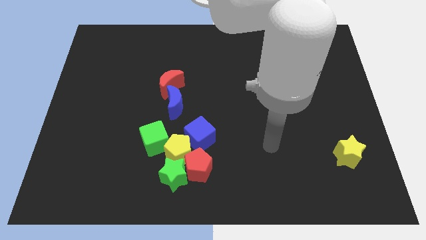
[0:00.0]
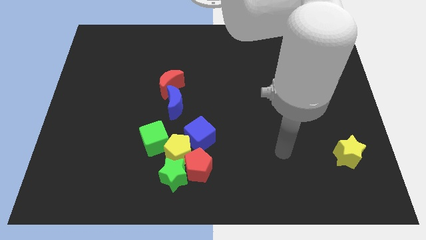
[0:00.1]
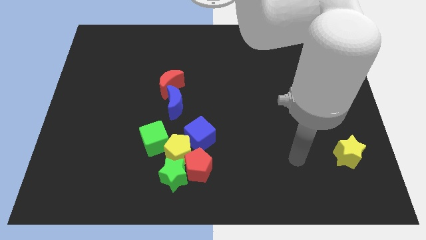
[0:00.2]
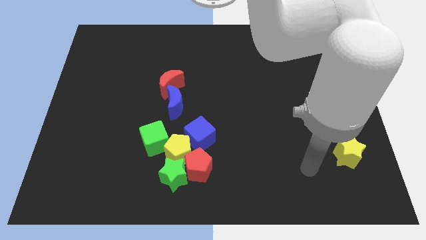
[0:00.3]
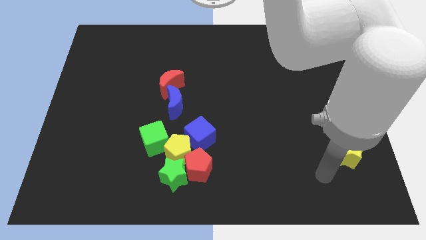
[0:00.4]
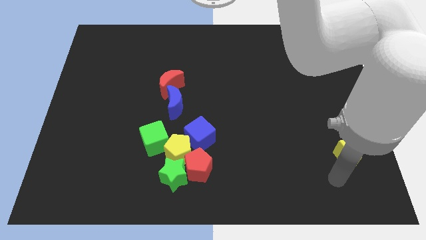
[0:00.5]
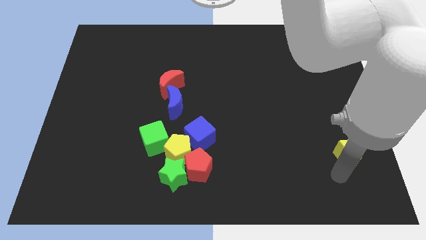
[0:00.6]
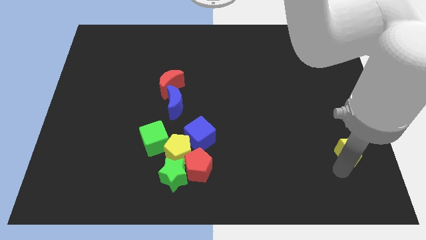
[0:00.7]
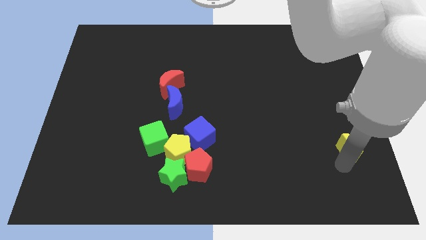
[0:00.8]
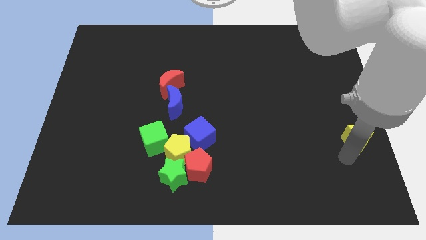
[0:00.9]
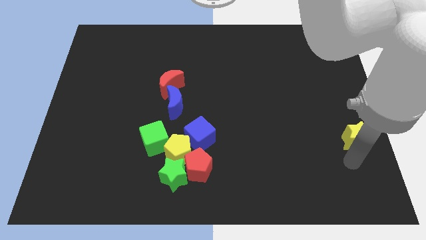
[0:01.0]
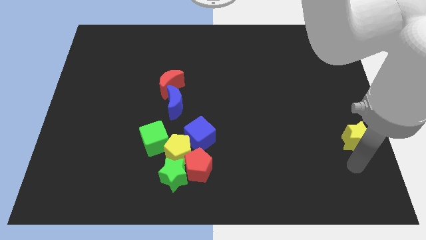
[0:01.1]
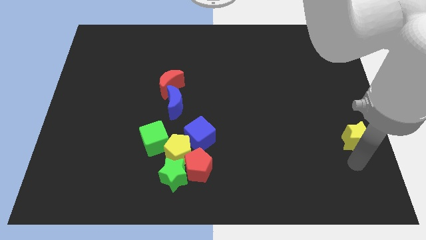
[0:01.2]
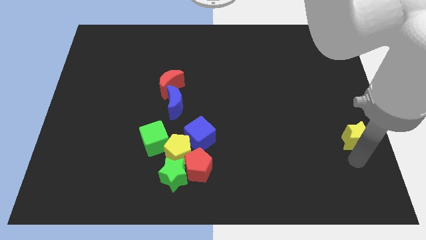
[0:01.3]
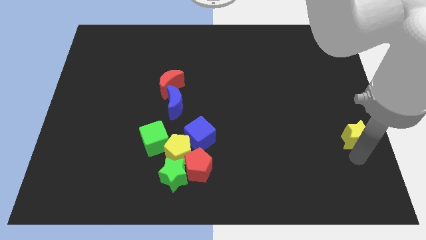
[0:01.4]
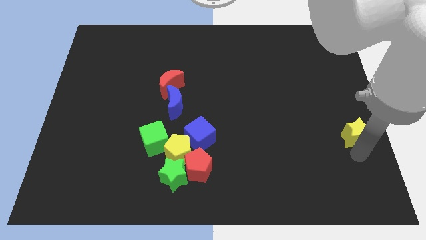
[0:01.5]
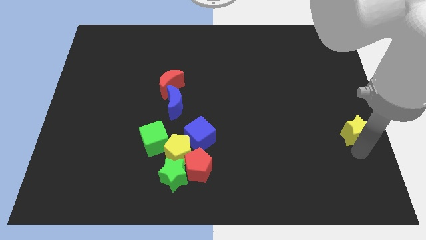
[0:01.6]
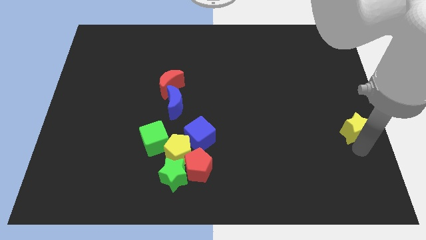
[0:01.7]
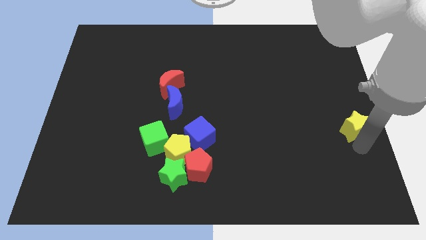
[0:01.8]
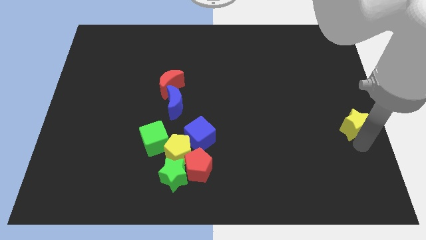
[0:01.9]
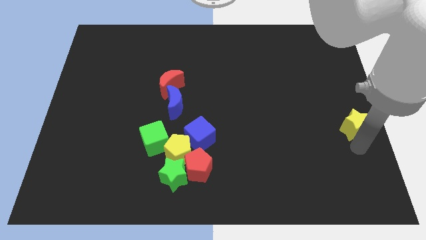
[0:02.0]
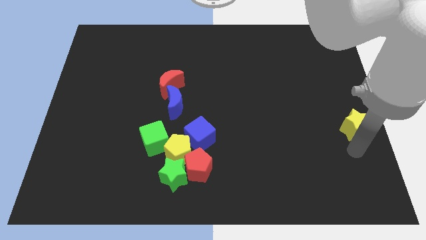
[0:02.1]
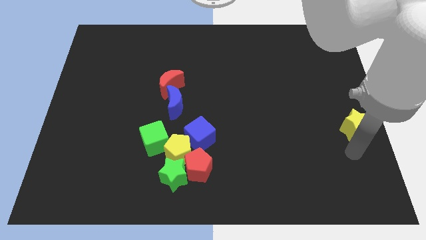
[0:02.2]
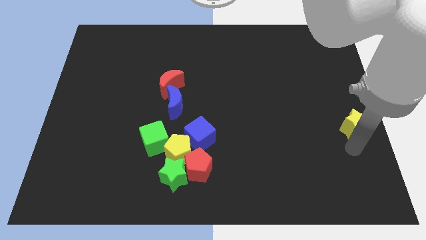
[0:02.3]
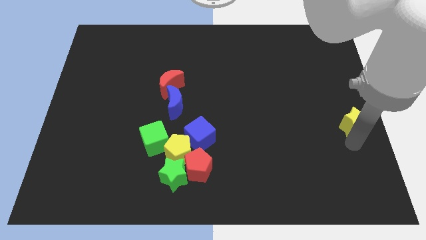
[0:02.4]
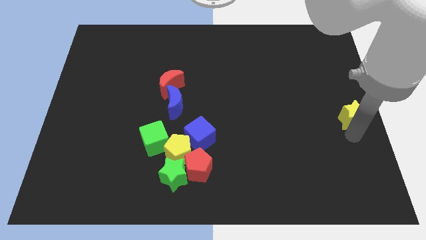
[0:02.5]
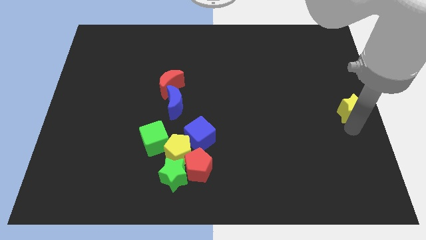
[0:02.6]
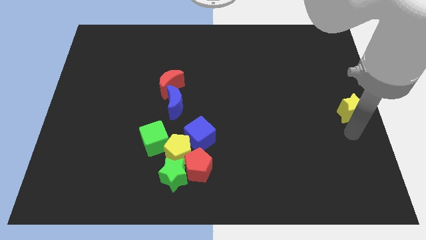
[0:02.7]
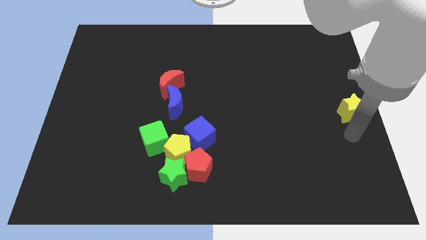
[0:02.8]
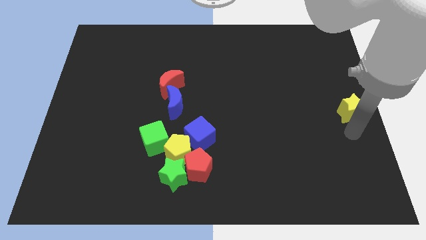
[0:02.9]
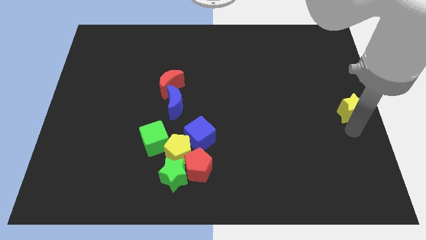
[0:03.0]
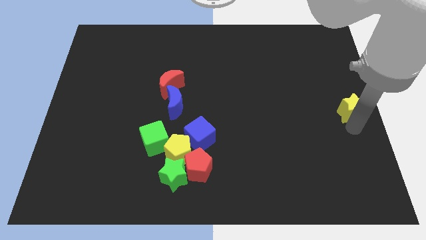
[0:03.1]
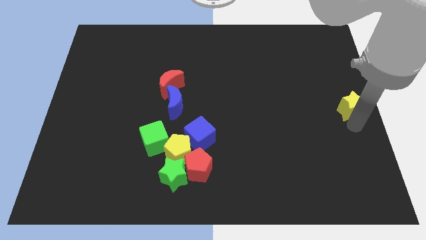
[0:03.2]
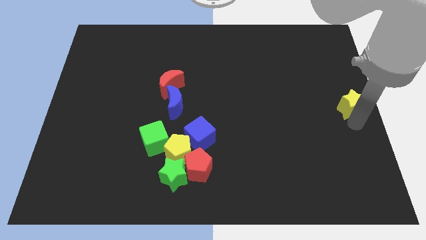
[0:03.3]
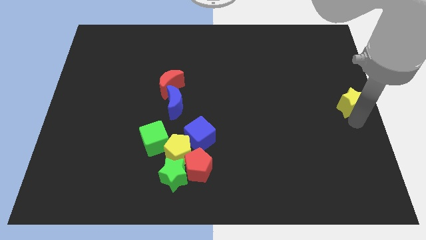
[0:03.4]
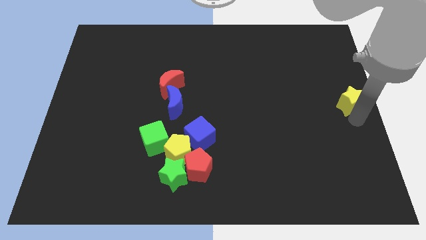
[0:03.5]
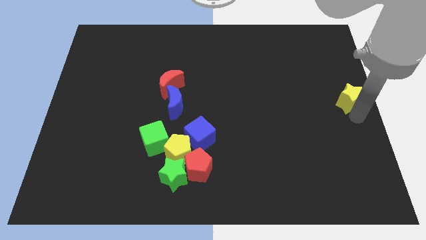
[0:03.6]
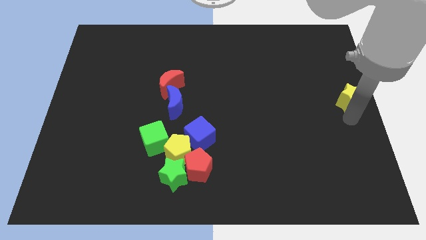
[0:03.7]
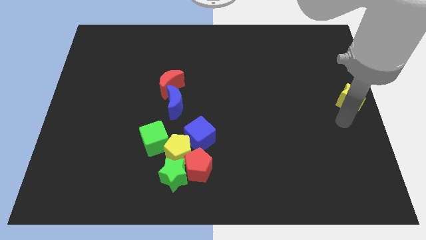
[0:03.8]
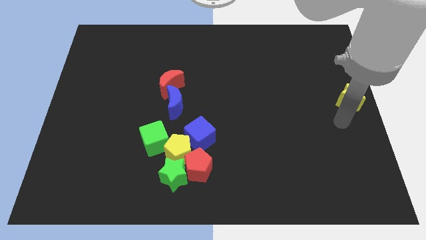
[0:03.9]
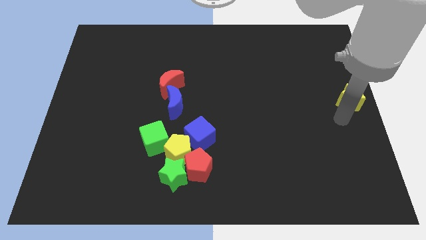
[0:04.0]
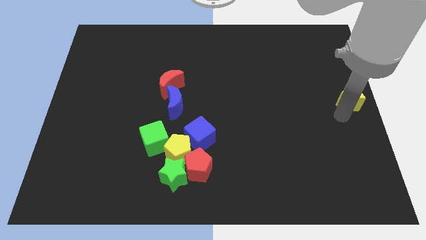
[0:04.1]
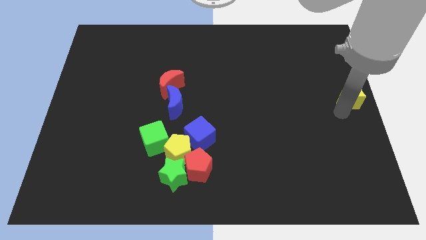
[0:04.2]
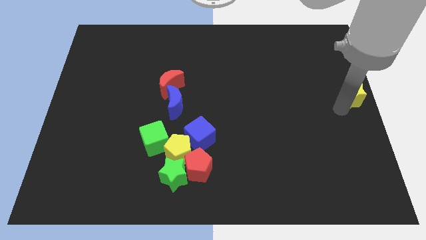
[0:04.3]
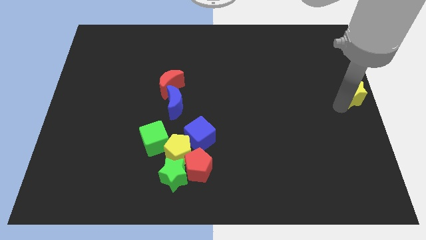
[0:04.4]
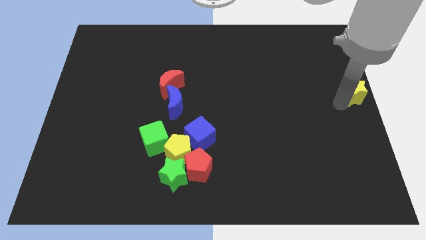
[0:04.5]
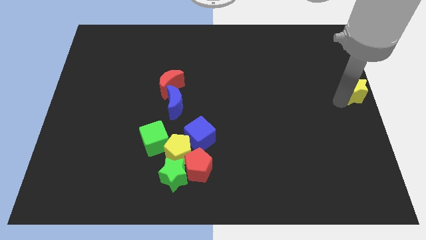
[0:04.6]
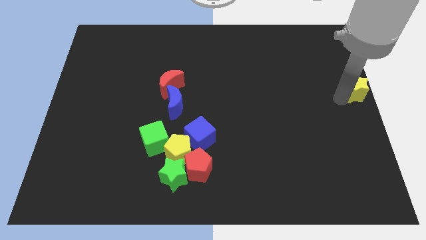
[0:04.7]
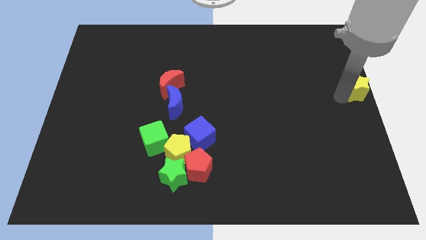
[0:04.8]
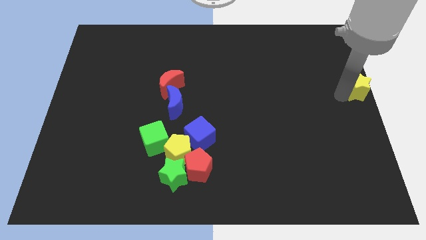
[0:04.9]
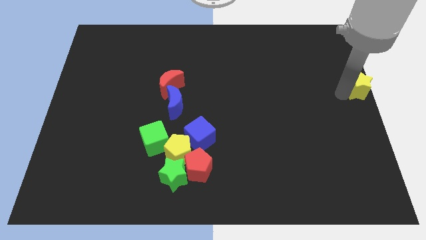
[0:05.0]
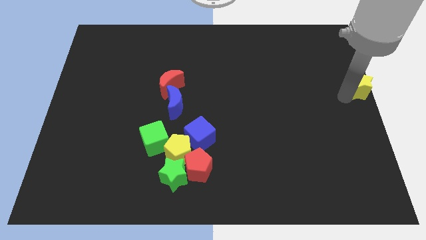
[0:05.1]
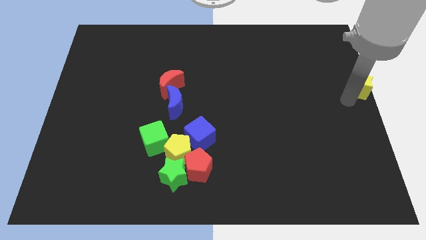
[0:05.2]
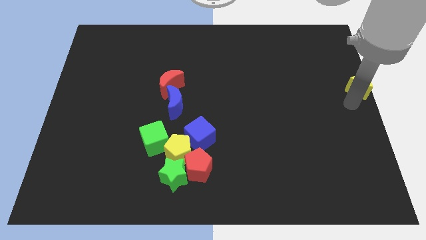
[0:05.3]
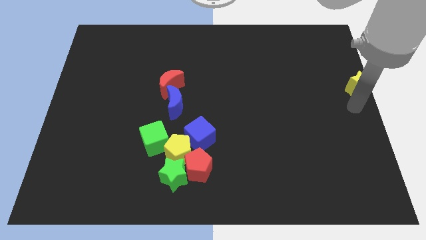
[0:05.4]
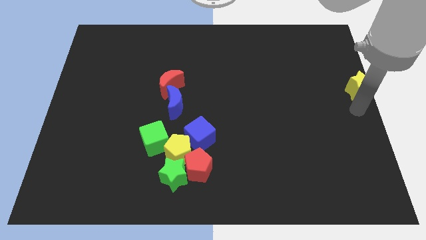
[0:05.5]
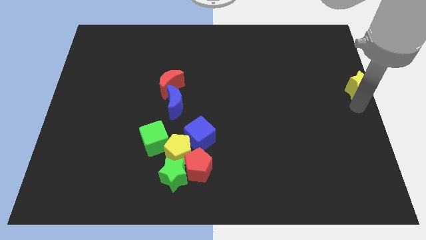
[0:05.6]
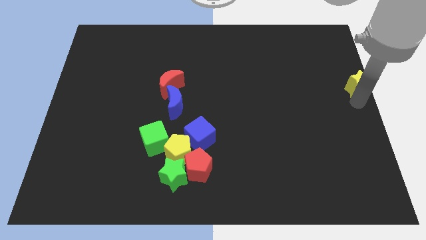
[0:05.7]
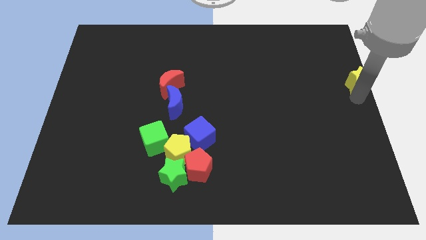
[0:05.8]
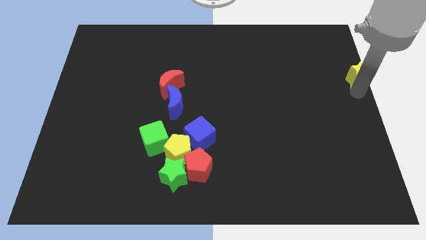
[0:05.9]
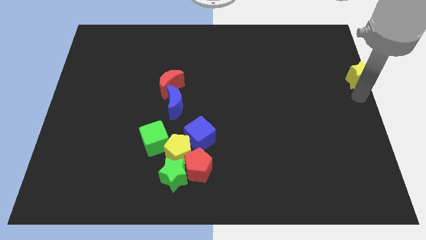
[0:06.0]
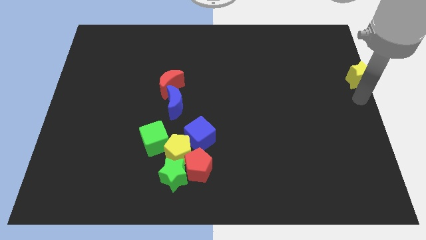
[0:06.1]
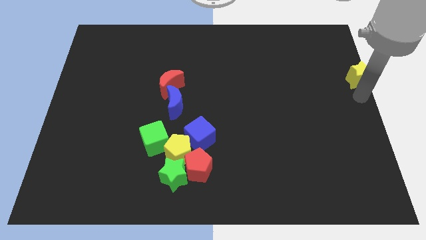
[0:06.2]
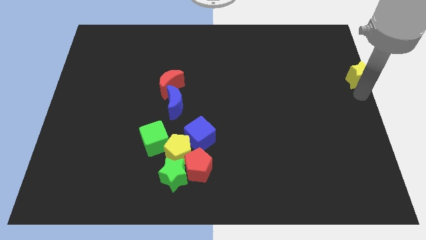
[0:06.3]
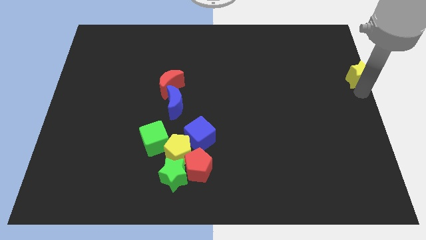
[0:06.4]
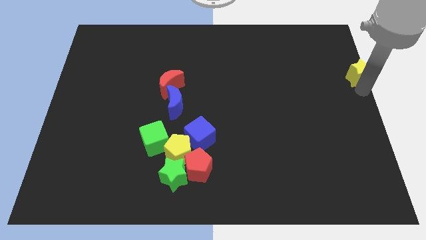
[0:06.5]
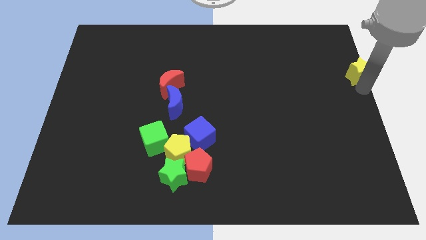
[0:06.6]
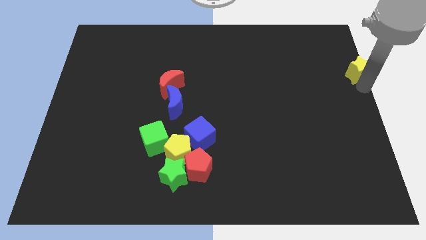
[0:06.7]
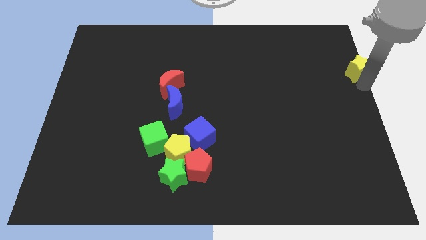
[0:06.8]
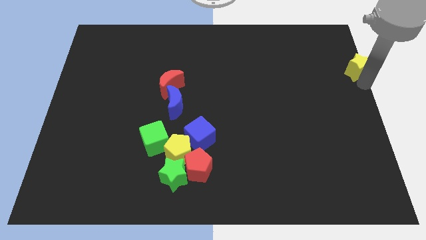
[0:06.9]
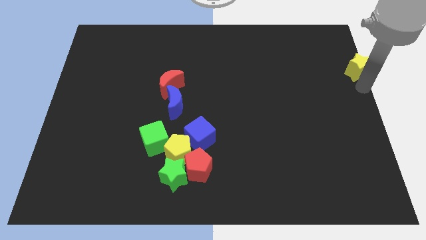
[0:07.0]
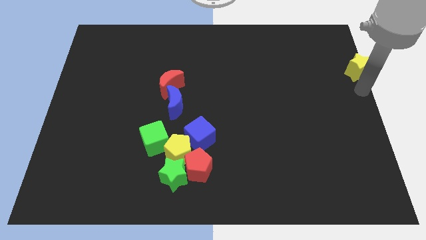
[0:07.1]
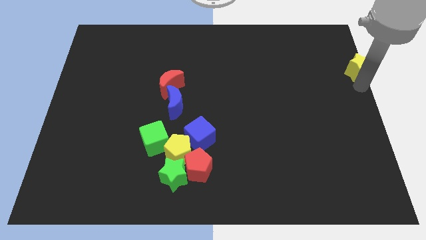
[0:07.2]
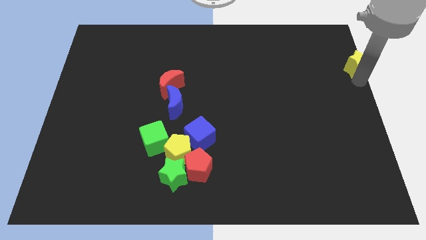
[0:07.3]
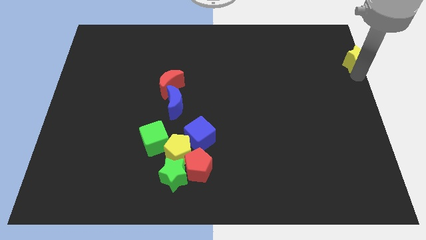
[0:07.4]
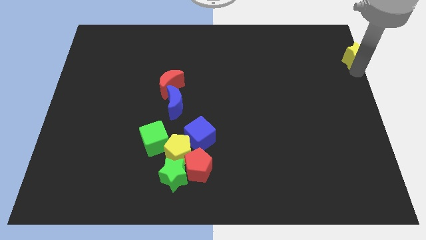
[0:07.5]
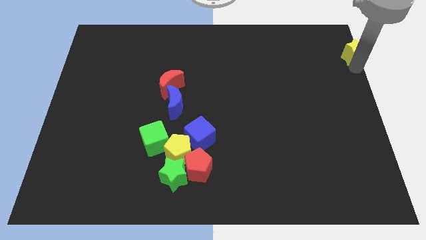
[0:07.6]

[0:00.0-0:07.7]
push the yellow star to the top right
